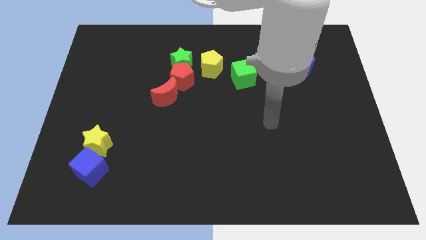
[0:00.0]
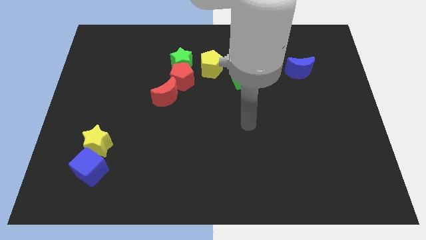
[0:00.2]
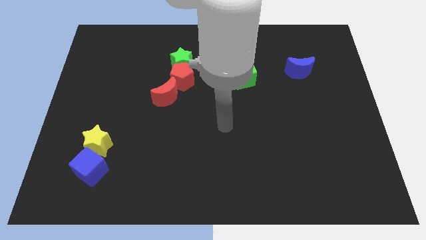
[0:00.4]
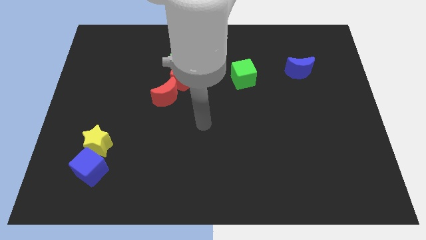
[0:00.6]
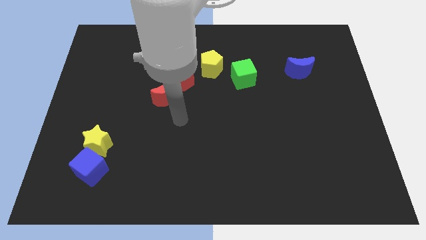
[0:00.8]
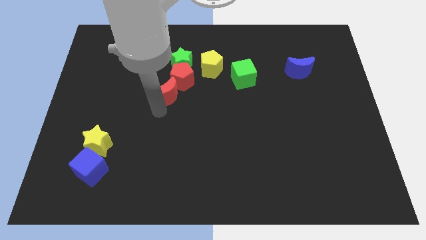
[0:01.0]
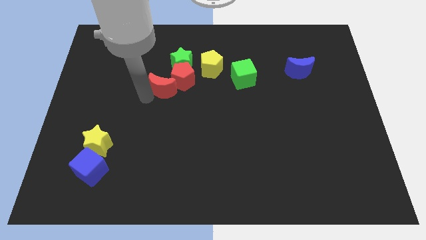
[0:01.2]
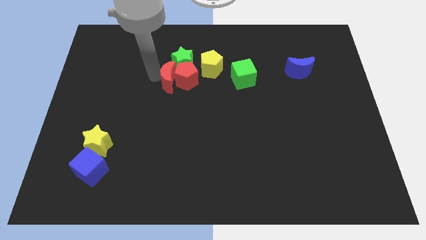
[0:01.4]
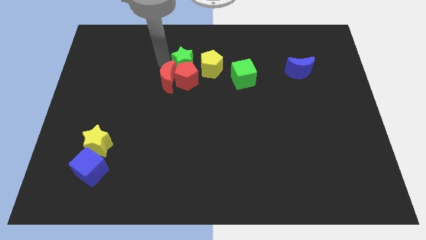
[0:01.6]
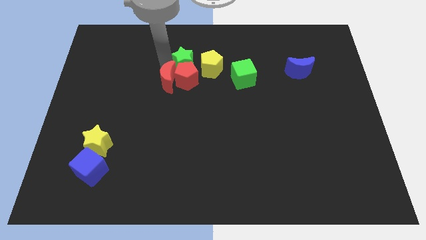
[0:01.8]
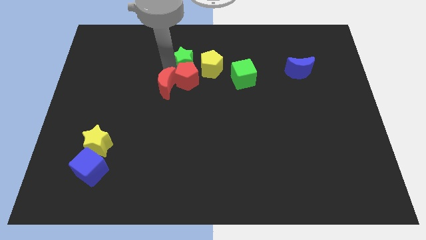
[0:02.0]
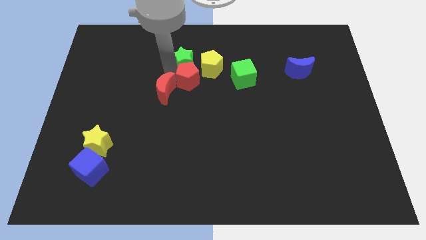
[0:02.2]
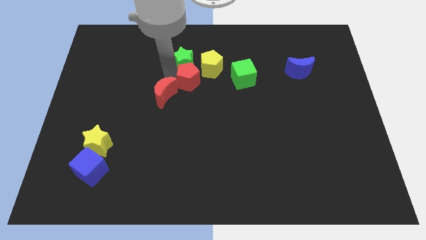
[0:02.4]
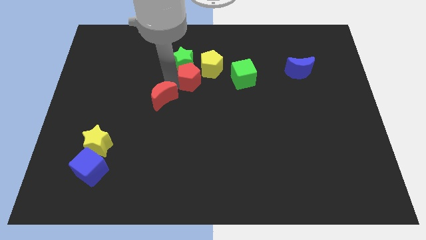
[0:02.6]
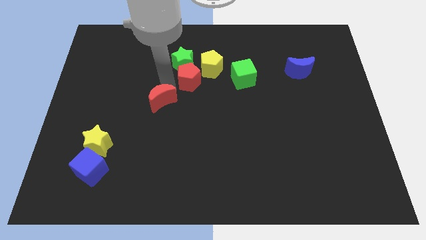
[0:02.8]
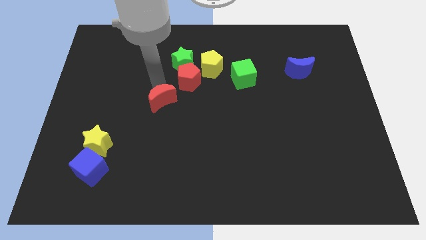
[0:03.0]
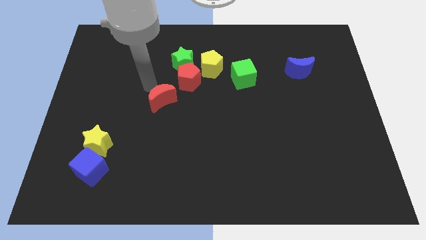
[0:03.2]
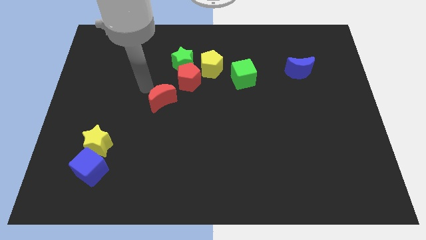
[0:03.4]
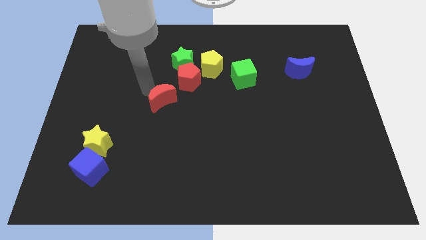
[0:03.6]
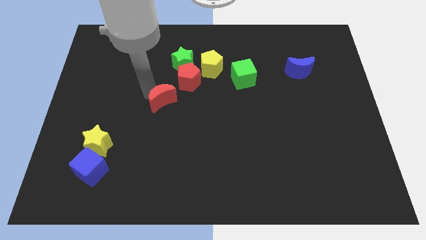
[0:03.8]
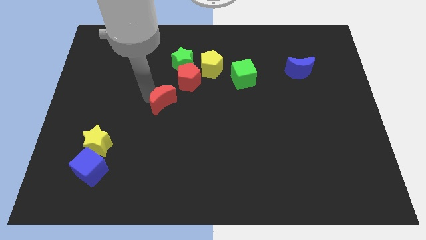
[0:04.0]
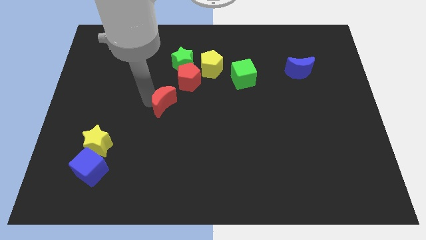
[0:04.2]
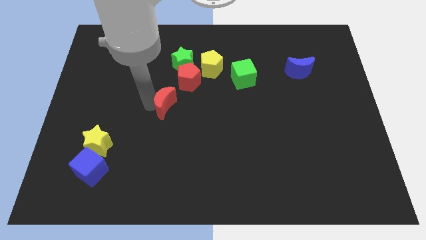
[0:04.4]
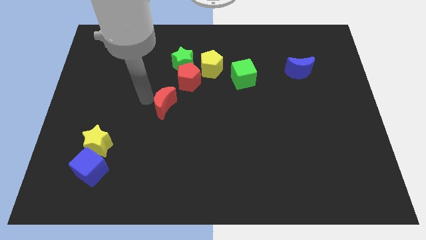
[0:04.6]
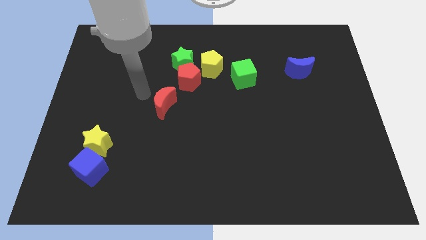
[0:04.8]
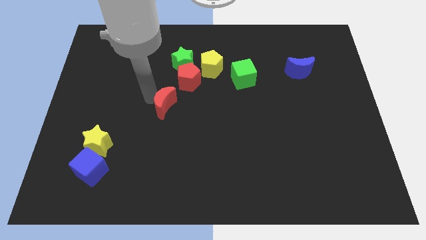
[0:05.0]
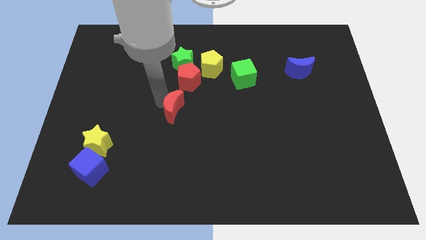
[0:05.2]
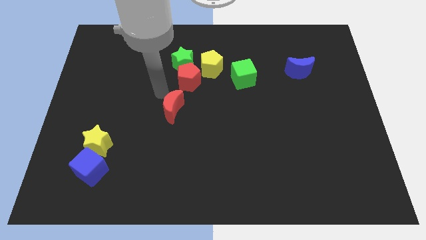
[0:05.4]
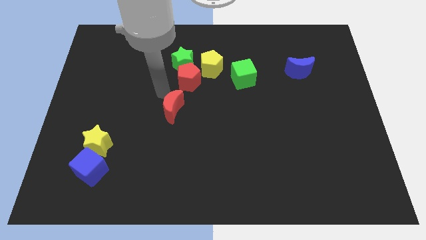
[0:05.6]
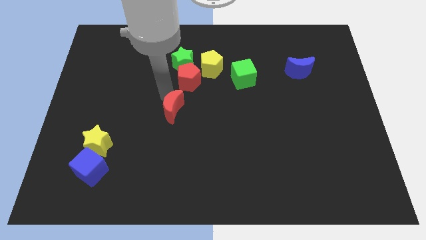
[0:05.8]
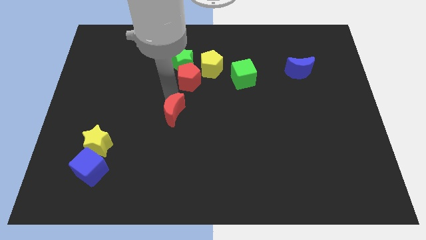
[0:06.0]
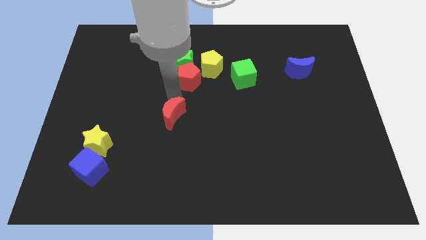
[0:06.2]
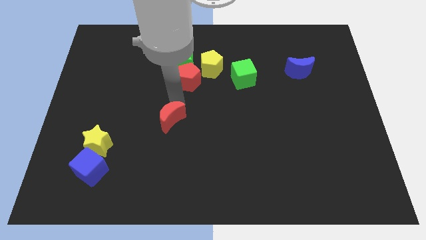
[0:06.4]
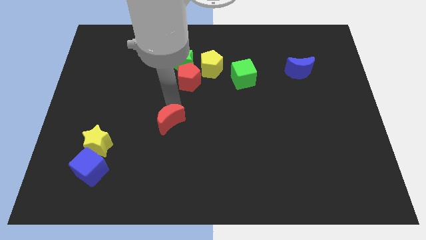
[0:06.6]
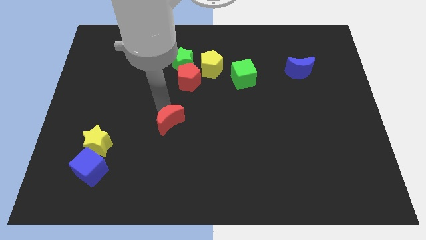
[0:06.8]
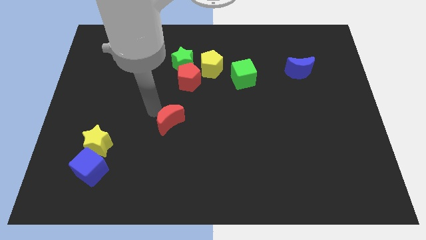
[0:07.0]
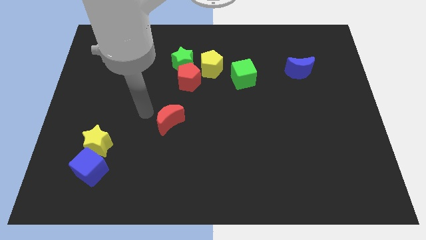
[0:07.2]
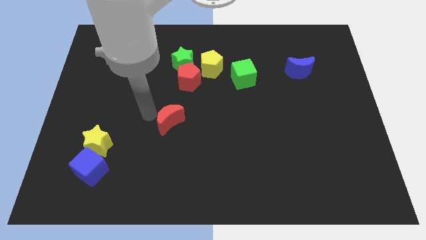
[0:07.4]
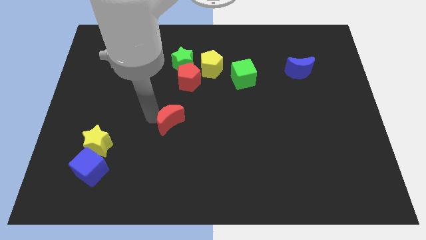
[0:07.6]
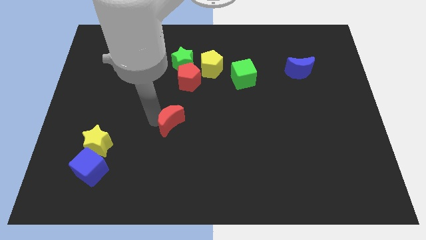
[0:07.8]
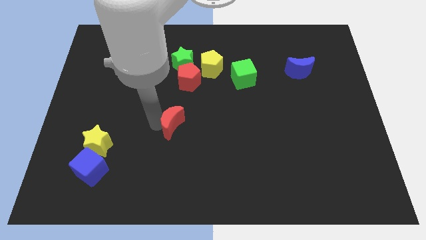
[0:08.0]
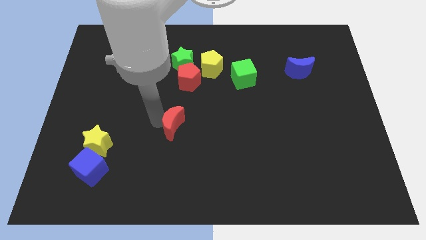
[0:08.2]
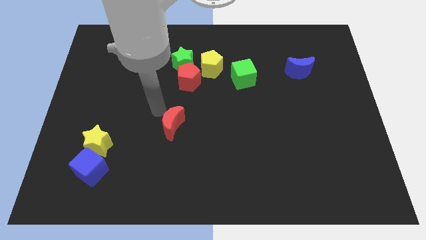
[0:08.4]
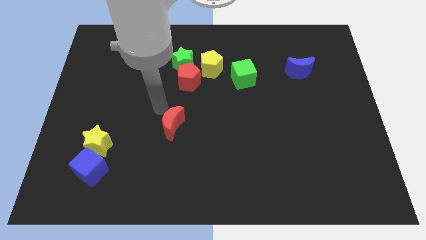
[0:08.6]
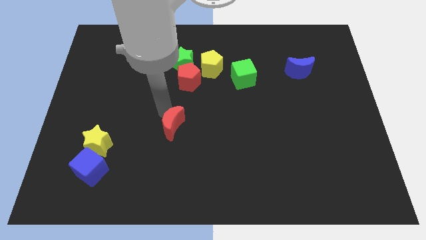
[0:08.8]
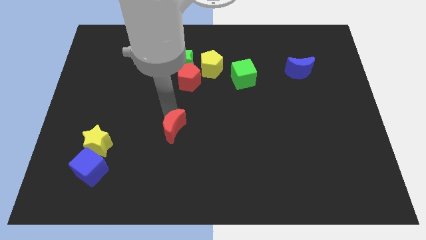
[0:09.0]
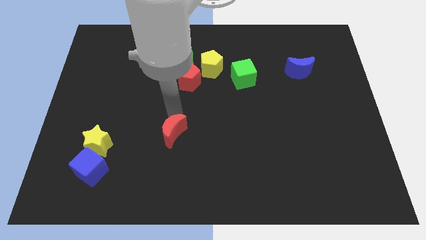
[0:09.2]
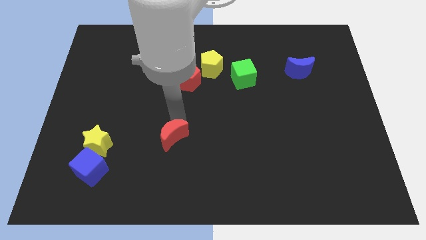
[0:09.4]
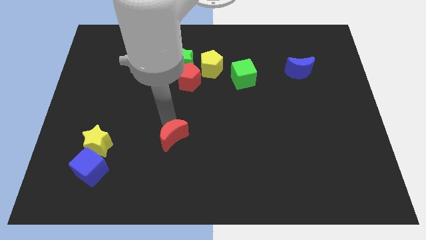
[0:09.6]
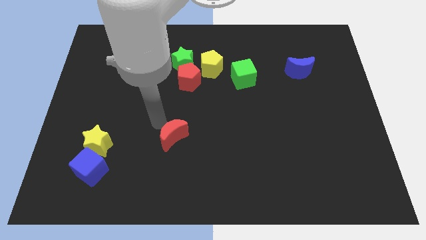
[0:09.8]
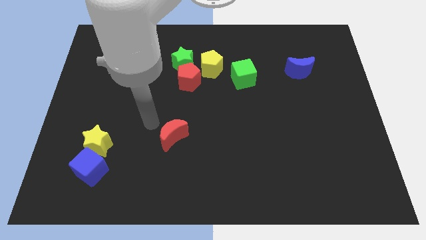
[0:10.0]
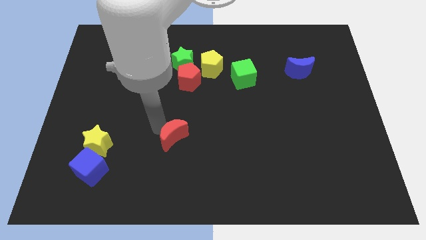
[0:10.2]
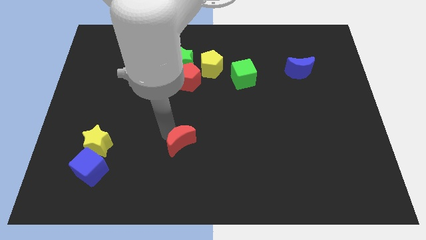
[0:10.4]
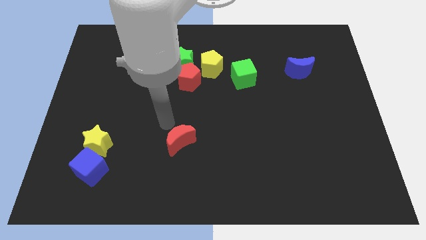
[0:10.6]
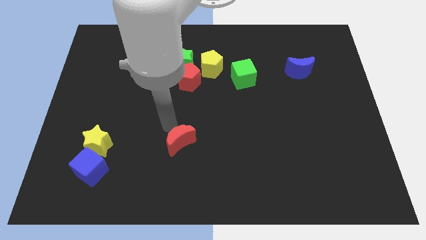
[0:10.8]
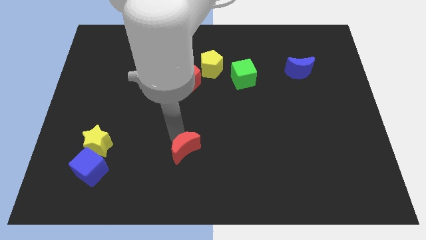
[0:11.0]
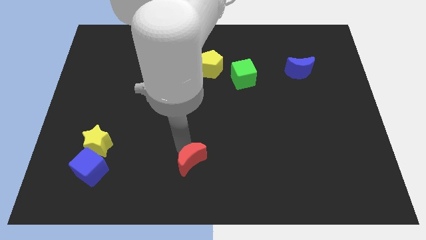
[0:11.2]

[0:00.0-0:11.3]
slide the red moon to the bottom side
